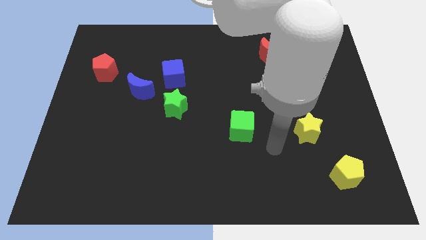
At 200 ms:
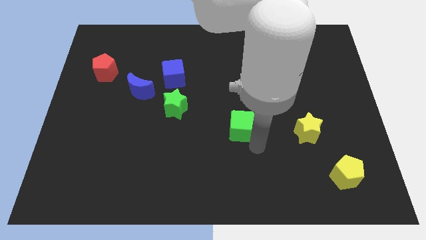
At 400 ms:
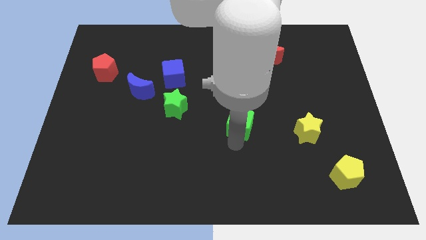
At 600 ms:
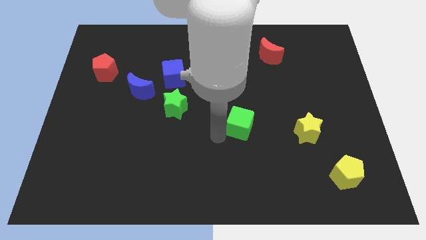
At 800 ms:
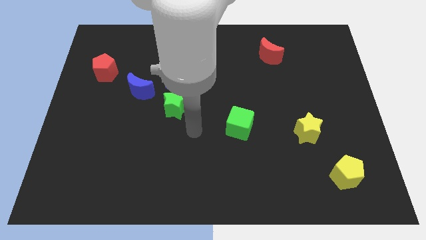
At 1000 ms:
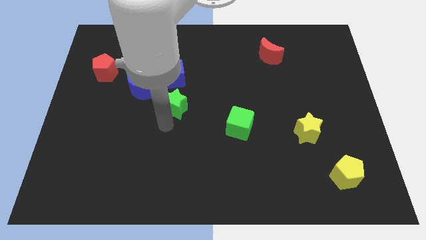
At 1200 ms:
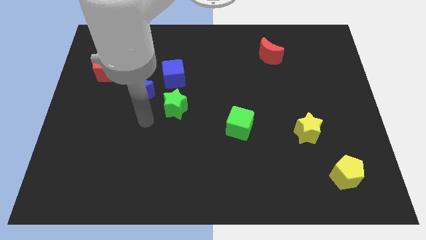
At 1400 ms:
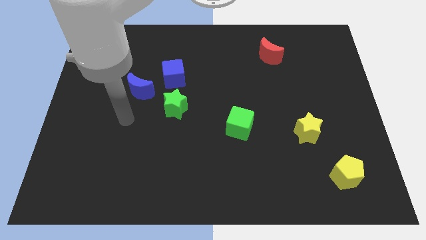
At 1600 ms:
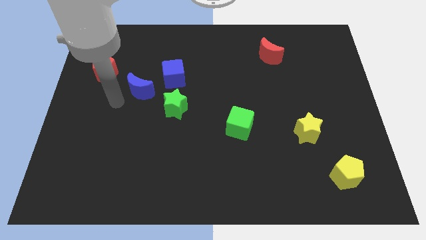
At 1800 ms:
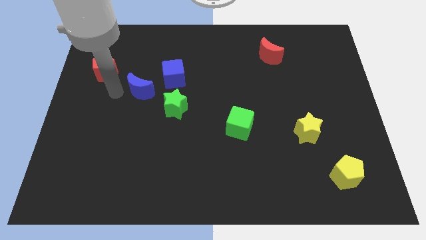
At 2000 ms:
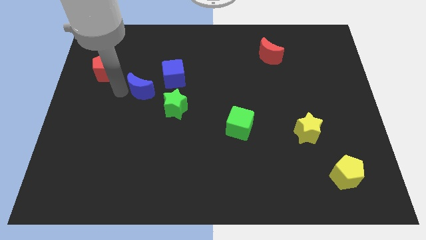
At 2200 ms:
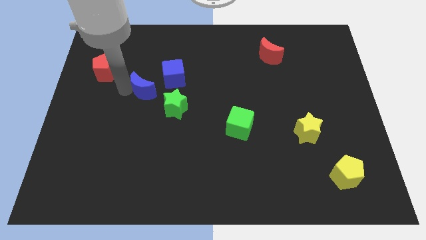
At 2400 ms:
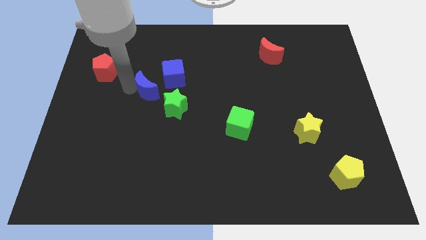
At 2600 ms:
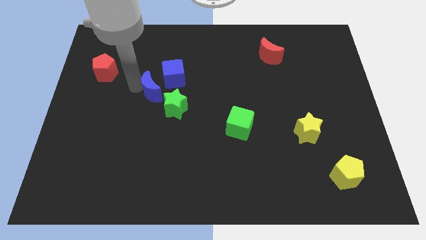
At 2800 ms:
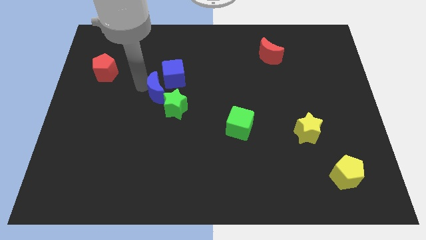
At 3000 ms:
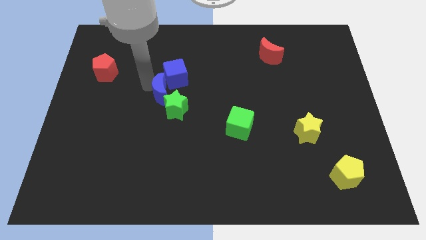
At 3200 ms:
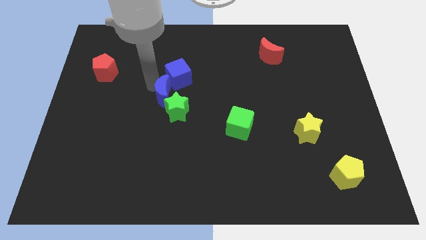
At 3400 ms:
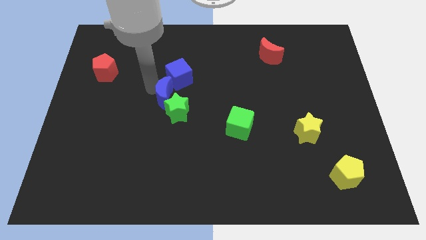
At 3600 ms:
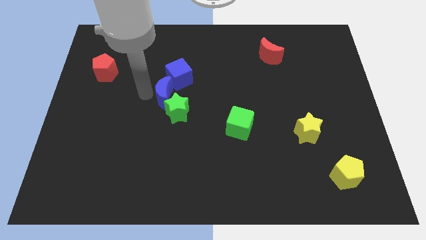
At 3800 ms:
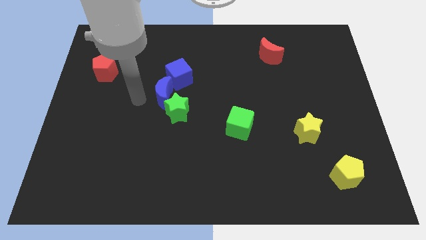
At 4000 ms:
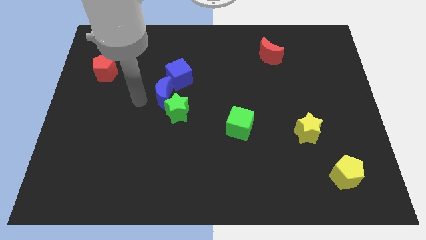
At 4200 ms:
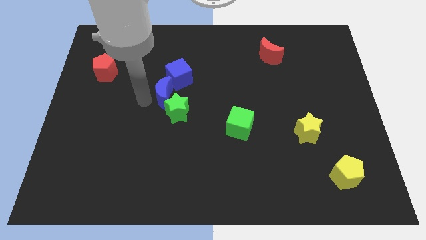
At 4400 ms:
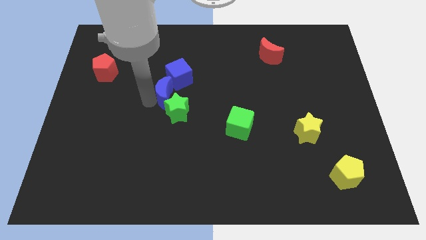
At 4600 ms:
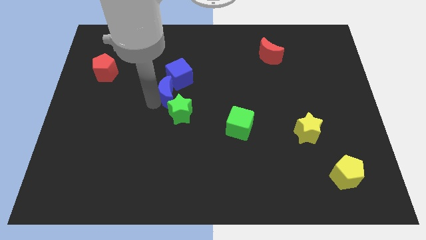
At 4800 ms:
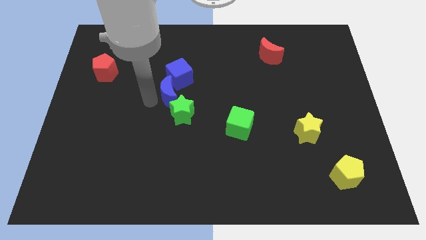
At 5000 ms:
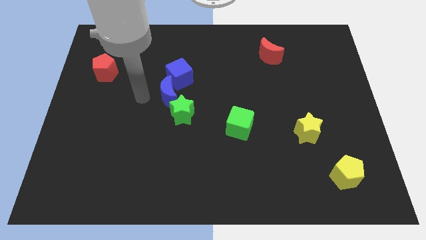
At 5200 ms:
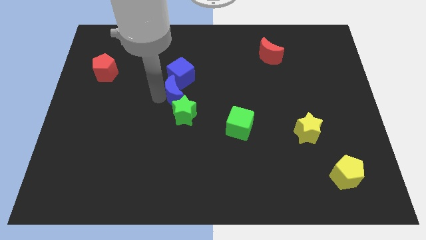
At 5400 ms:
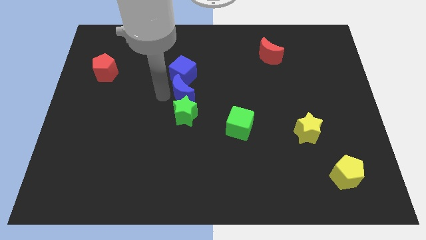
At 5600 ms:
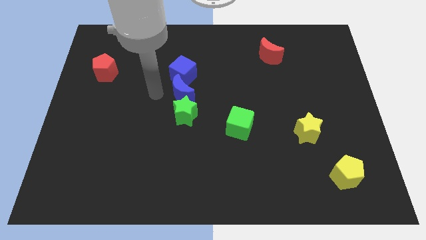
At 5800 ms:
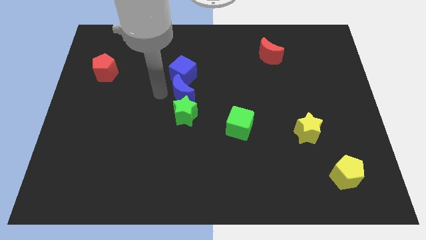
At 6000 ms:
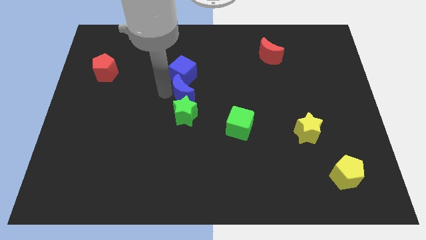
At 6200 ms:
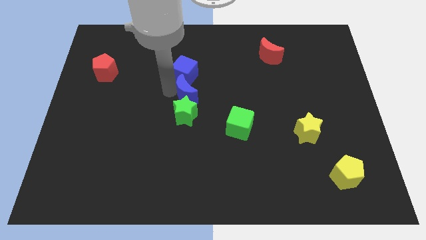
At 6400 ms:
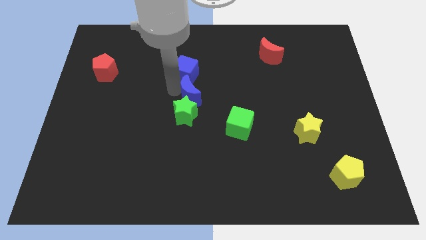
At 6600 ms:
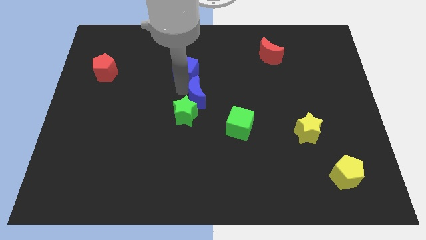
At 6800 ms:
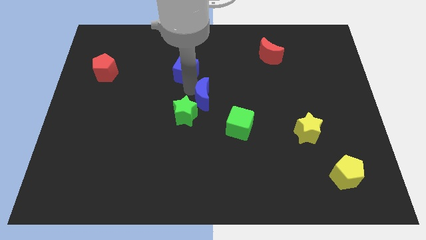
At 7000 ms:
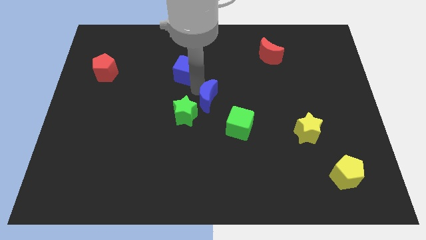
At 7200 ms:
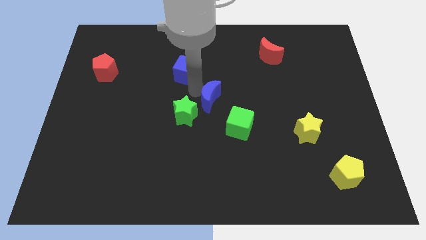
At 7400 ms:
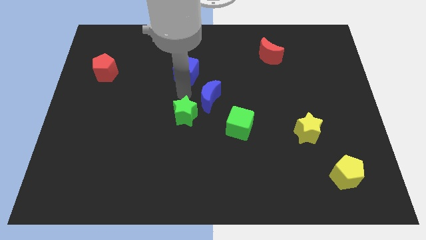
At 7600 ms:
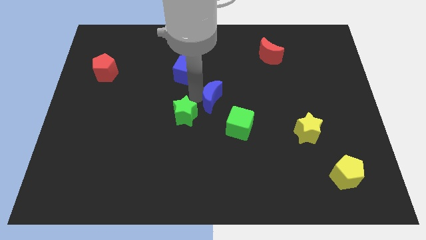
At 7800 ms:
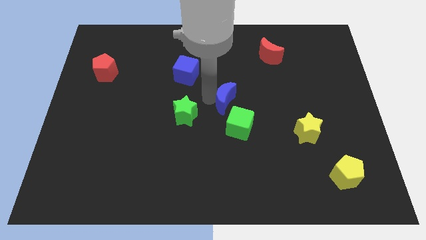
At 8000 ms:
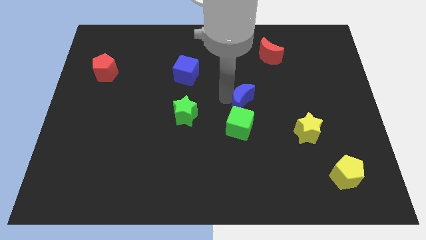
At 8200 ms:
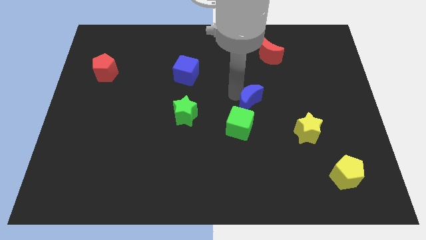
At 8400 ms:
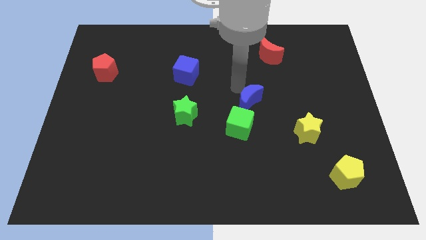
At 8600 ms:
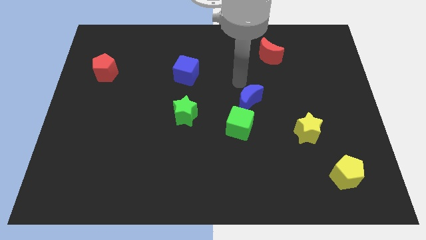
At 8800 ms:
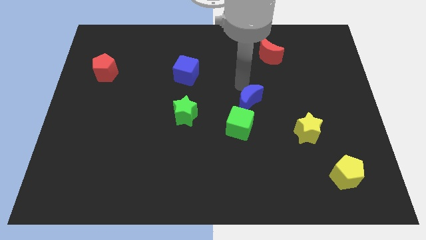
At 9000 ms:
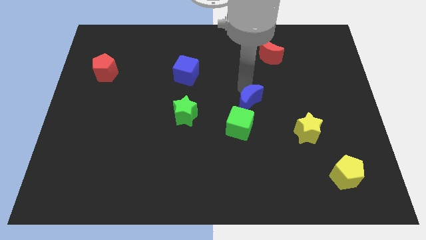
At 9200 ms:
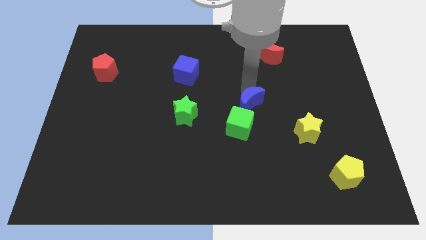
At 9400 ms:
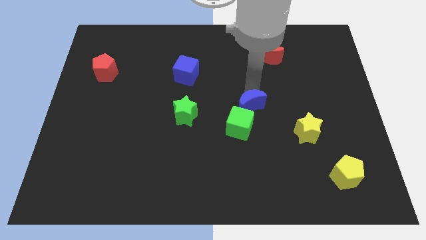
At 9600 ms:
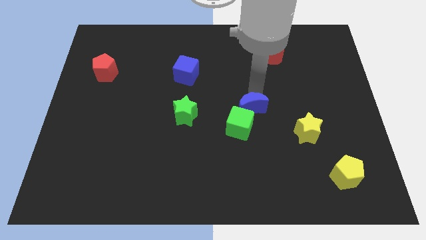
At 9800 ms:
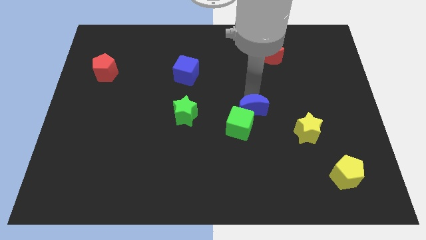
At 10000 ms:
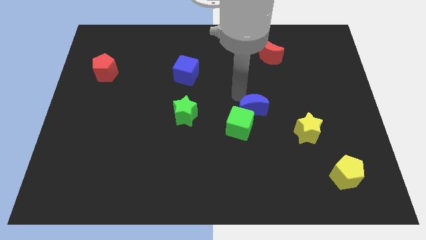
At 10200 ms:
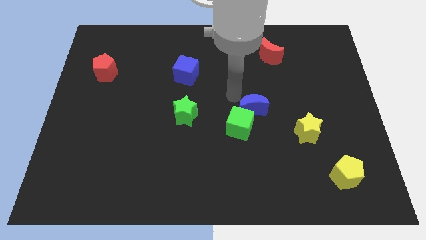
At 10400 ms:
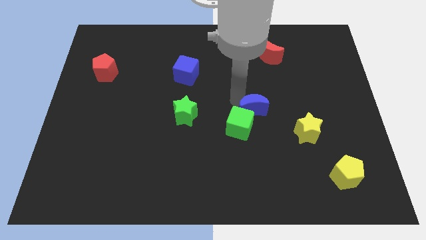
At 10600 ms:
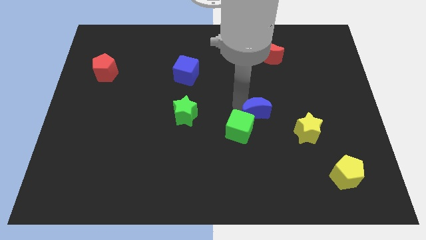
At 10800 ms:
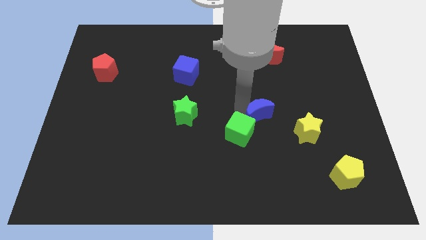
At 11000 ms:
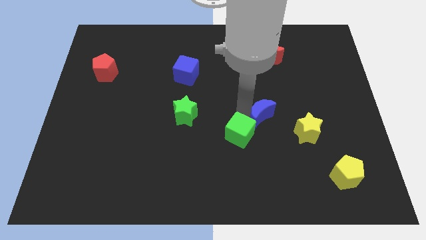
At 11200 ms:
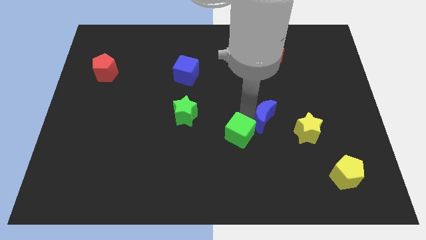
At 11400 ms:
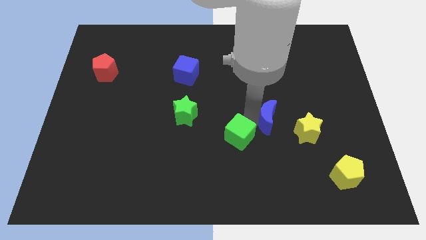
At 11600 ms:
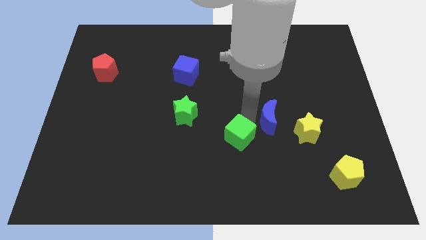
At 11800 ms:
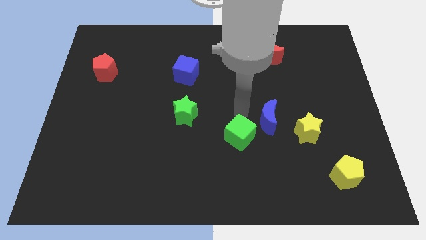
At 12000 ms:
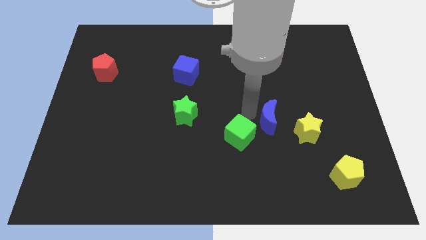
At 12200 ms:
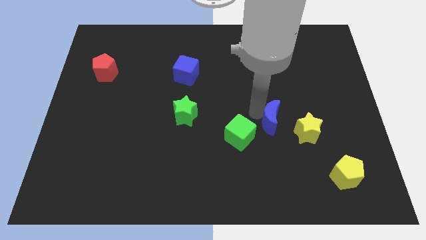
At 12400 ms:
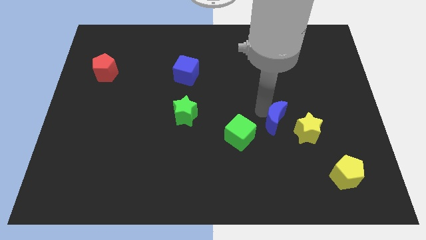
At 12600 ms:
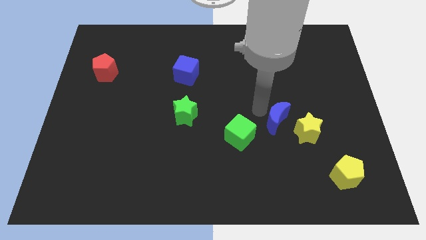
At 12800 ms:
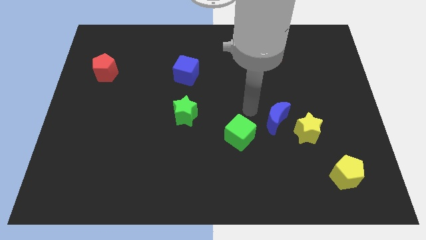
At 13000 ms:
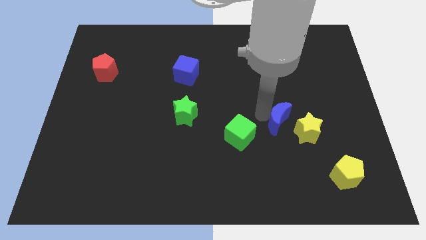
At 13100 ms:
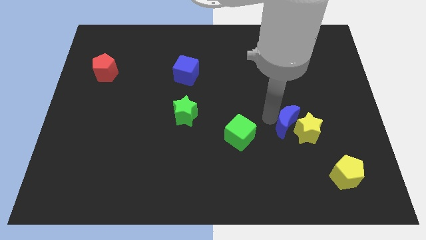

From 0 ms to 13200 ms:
push the blue moon close to the yellow star

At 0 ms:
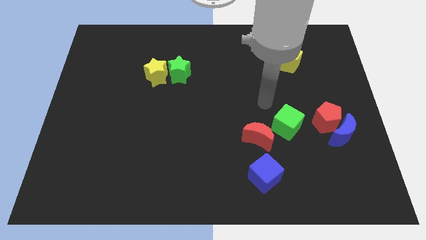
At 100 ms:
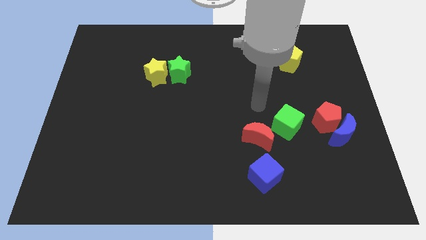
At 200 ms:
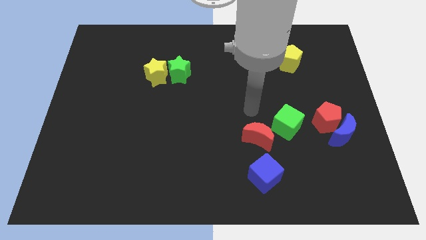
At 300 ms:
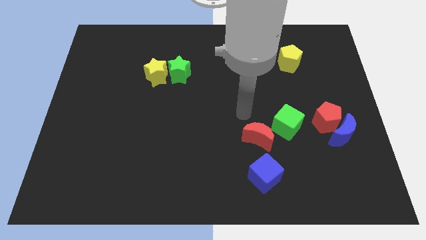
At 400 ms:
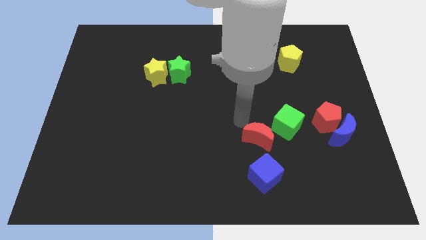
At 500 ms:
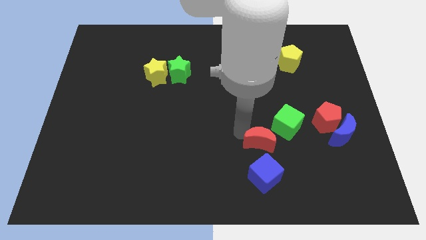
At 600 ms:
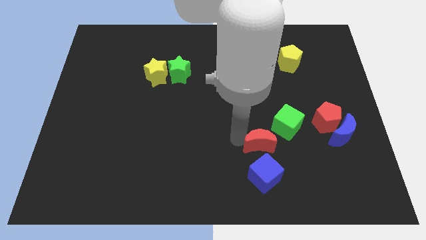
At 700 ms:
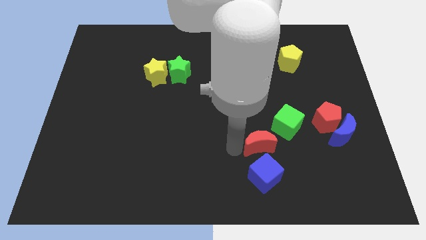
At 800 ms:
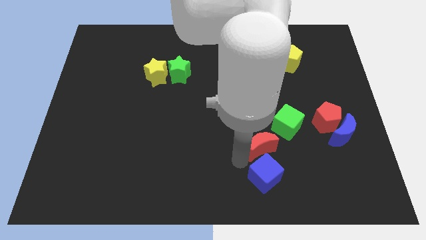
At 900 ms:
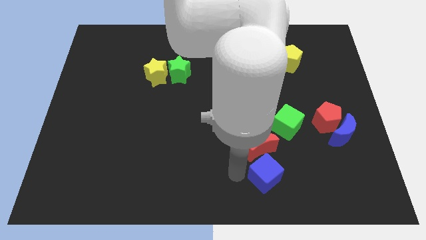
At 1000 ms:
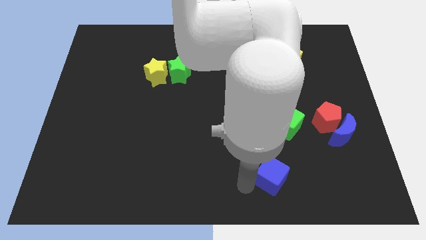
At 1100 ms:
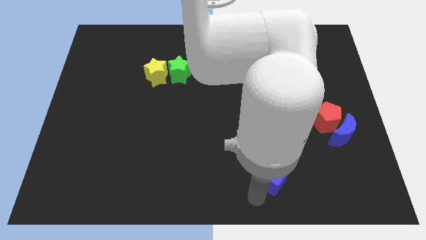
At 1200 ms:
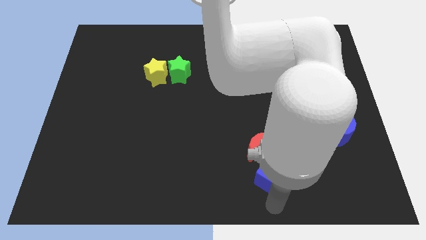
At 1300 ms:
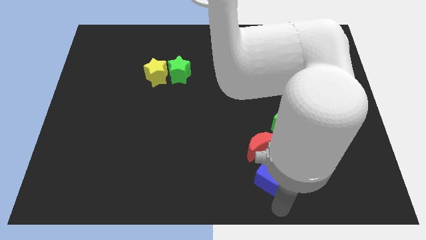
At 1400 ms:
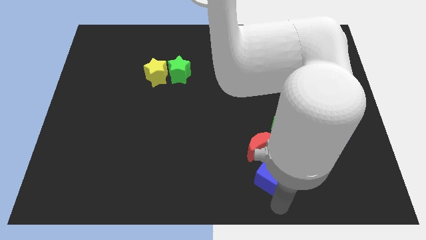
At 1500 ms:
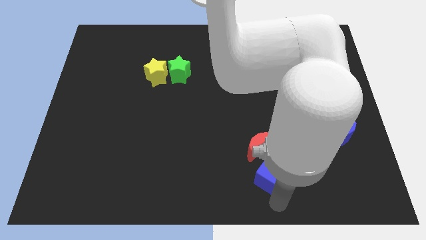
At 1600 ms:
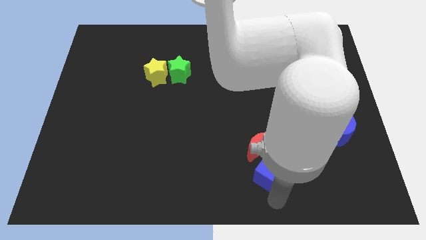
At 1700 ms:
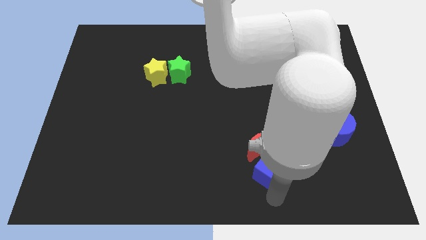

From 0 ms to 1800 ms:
move the blue cube towards the red moon
